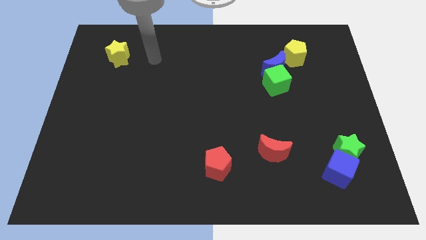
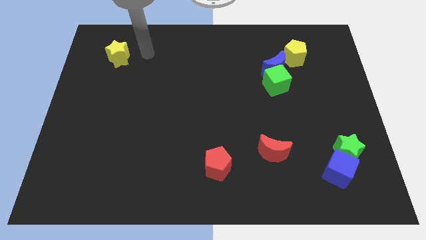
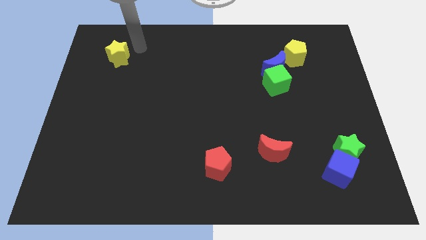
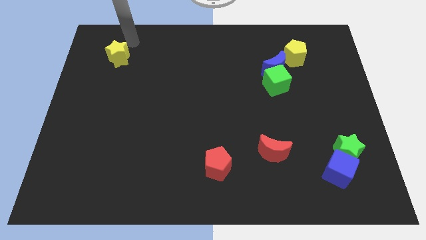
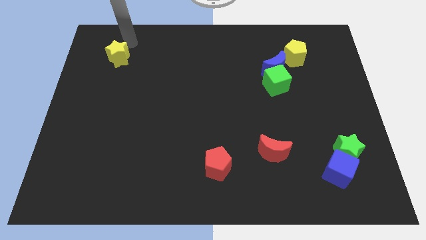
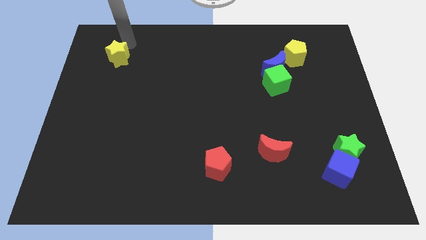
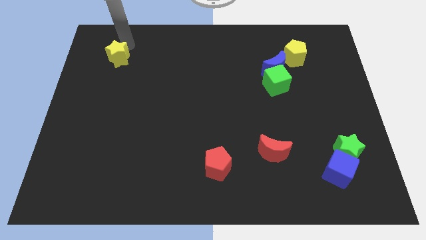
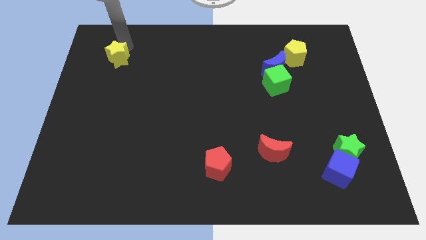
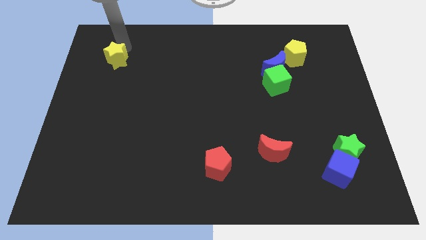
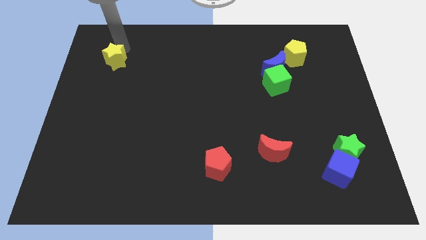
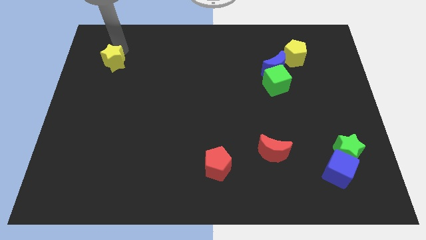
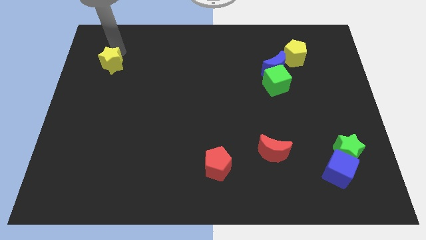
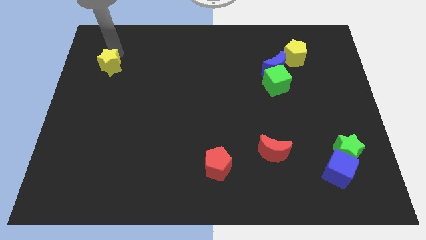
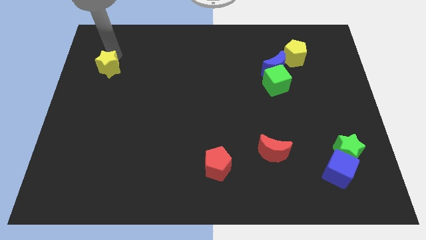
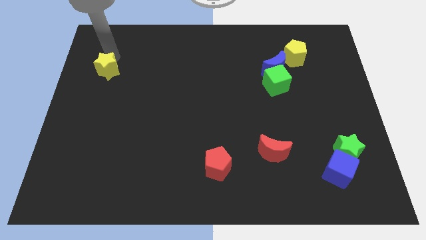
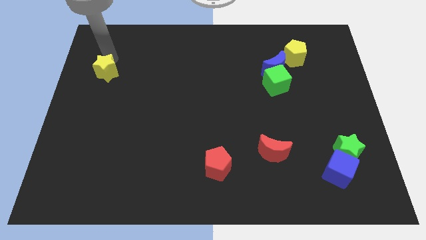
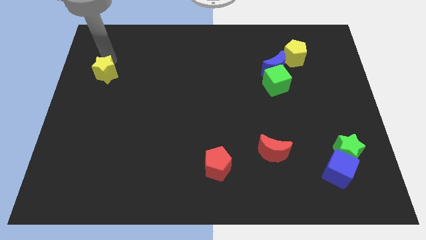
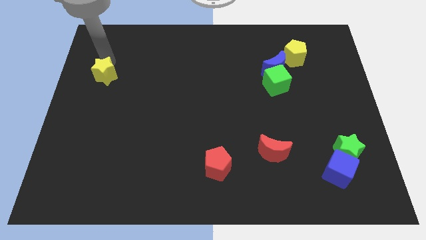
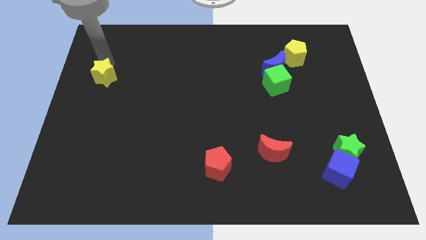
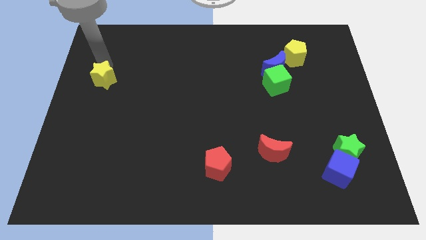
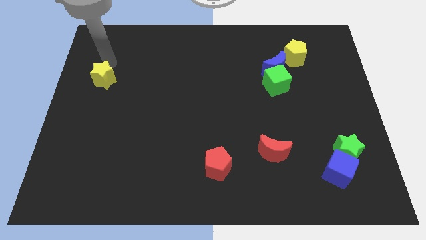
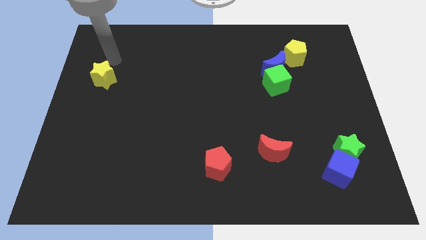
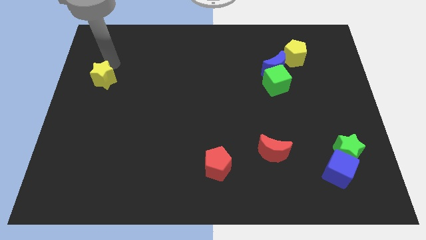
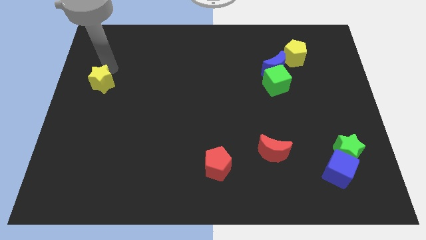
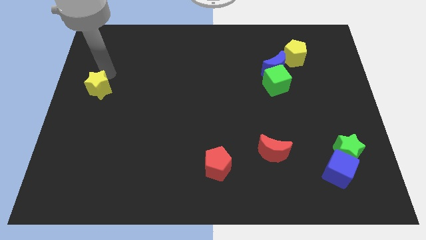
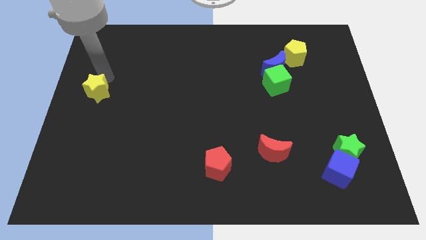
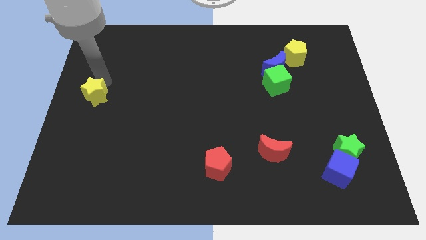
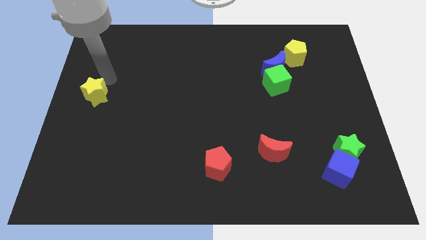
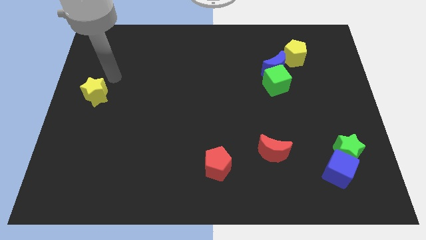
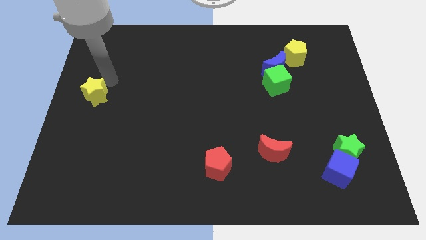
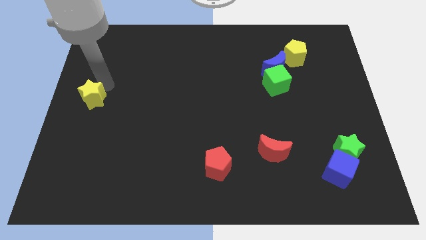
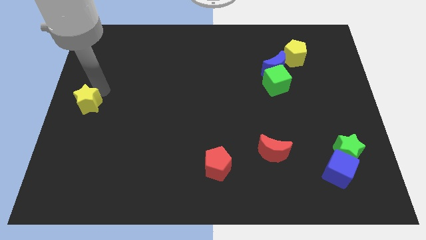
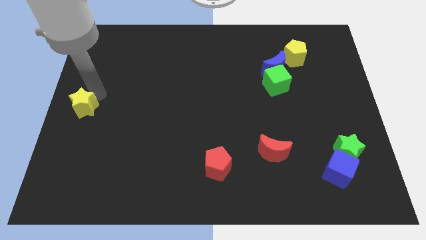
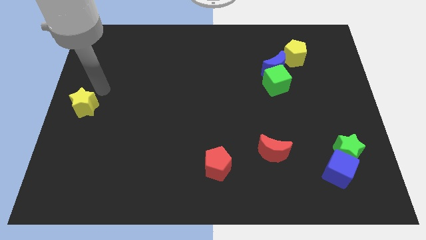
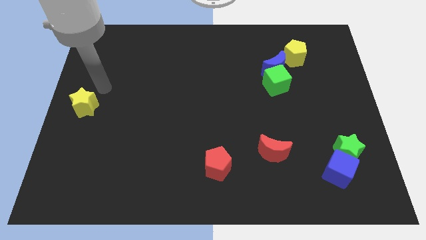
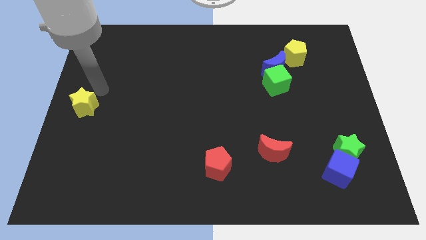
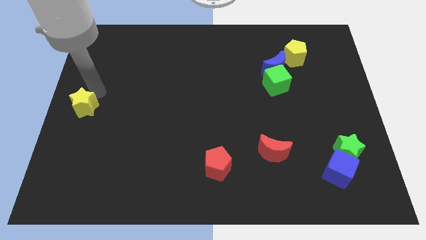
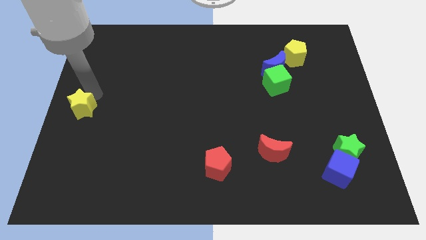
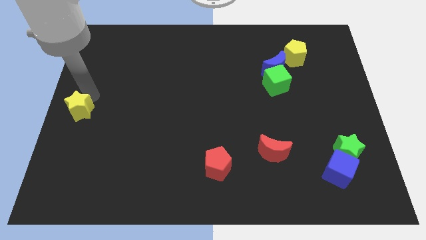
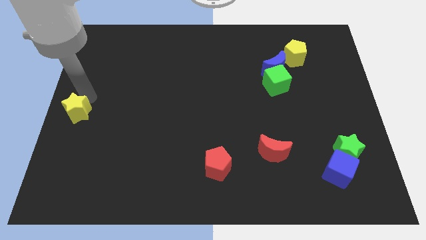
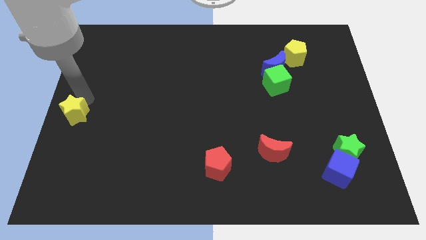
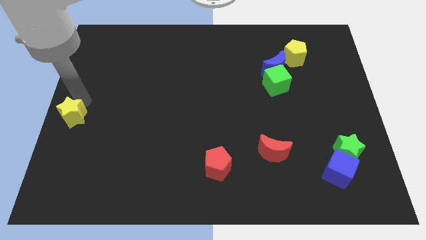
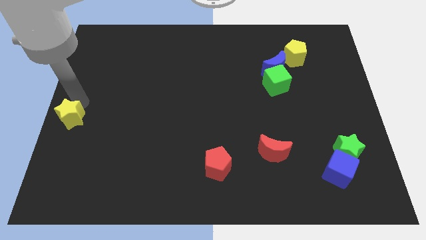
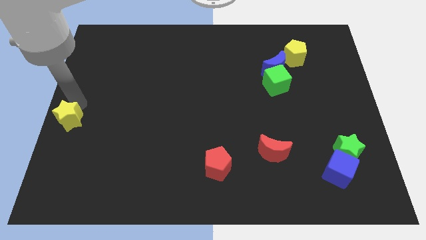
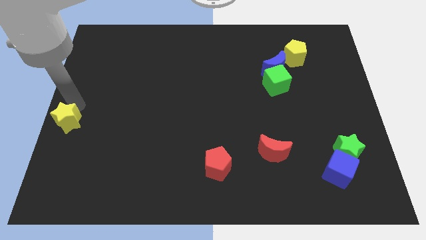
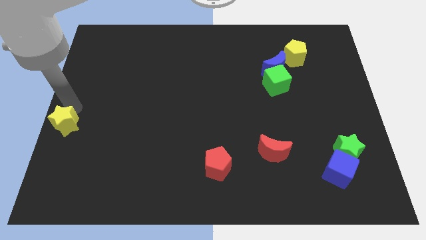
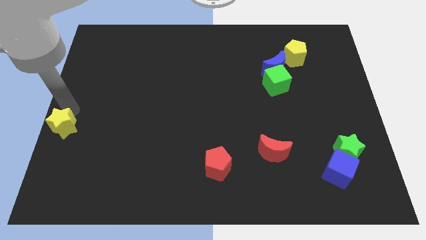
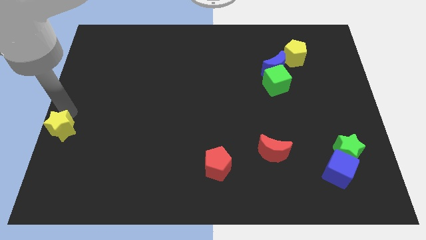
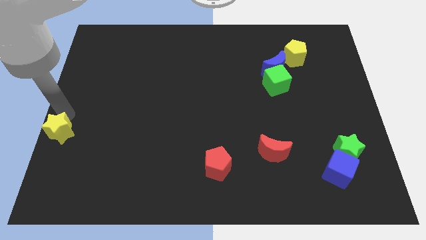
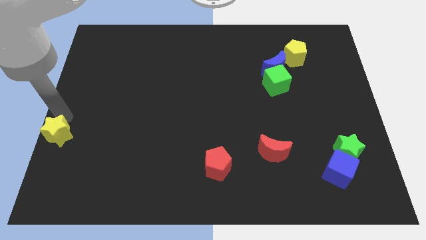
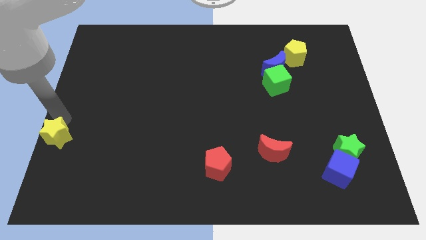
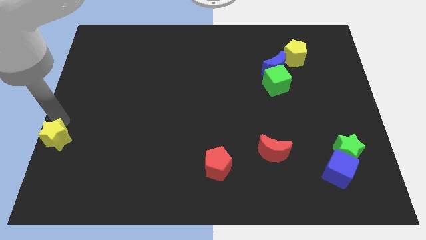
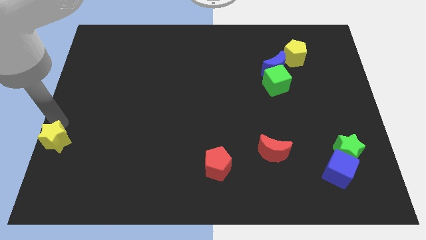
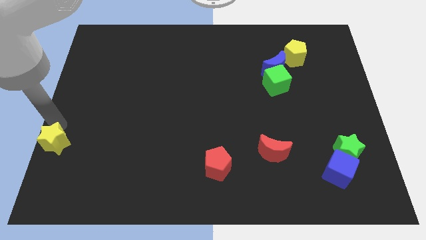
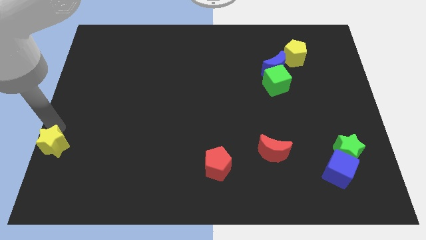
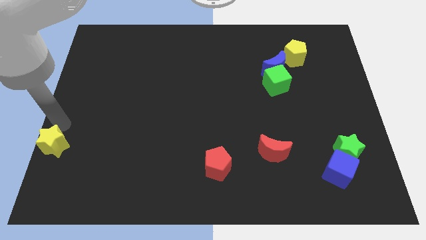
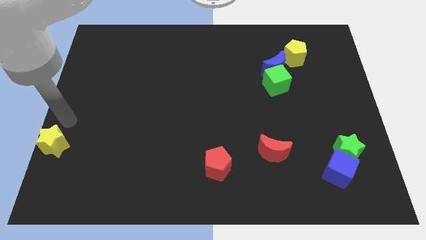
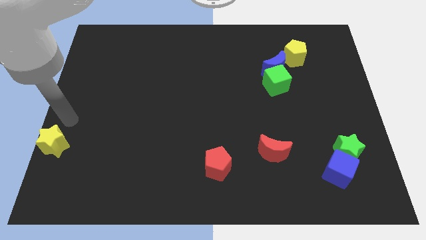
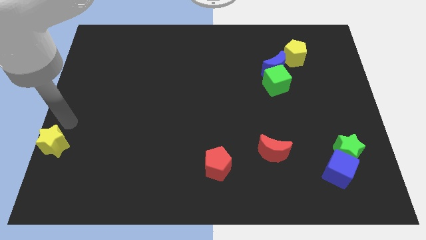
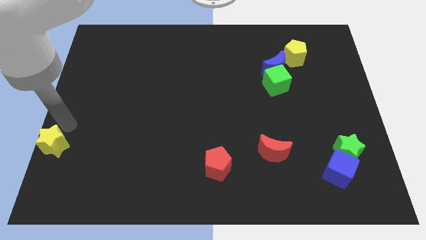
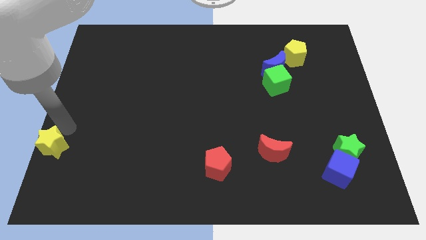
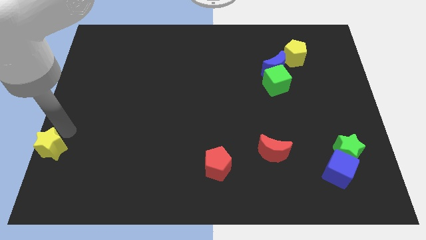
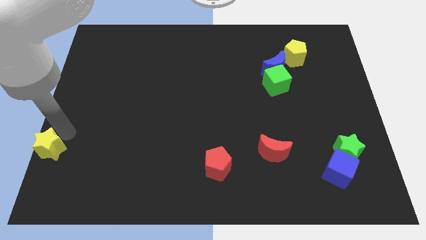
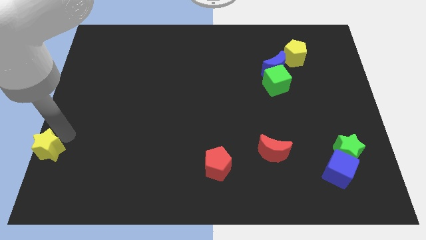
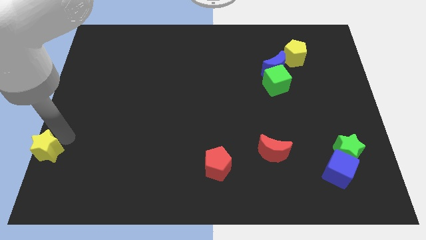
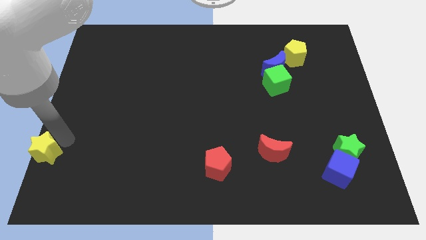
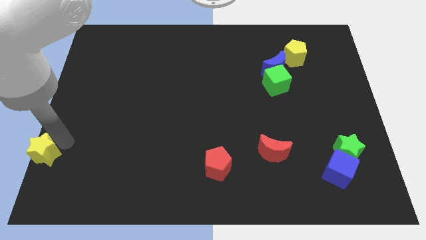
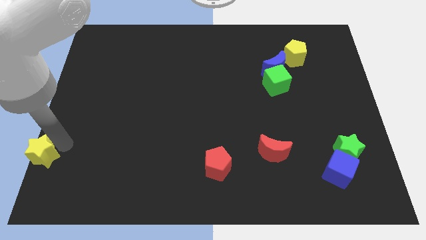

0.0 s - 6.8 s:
slide the yellow star to the bottom left
